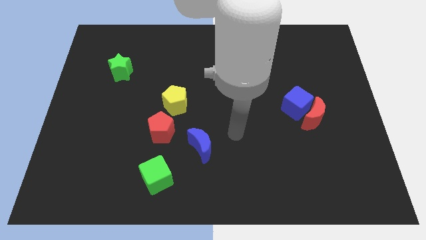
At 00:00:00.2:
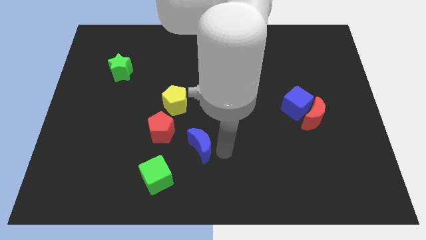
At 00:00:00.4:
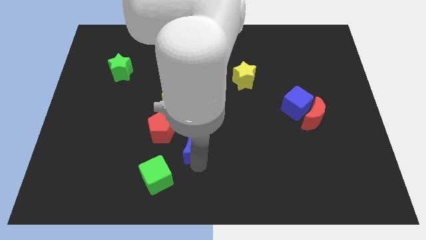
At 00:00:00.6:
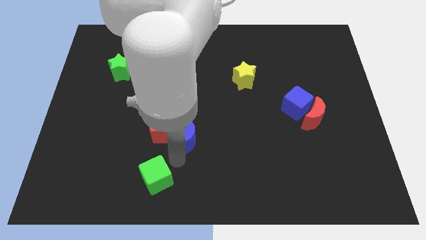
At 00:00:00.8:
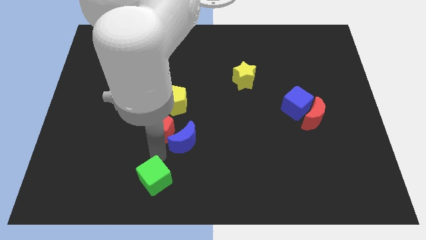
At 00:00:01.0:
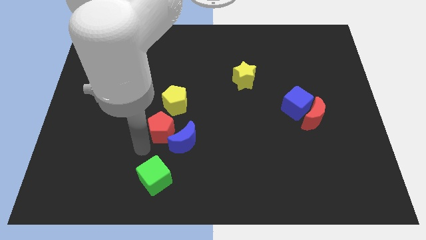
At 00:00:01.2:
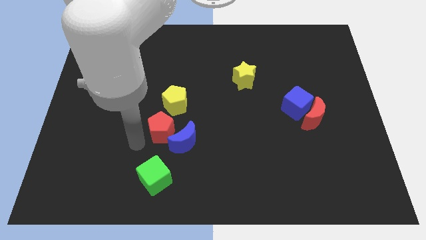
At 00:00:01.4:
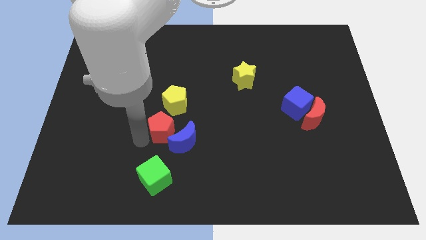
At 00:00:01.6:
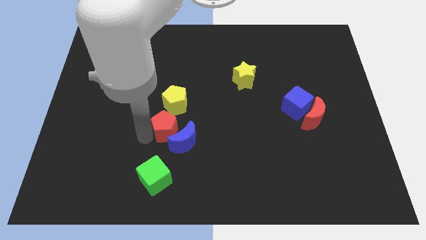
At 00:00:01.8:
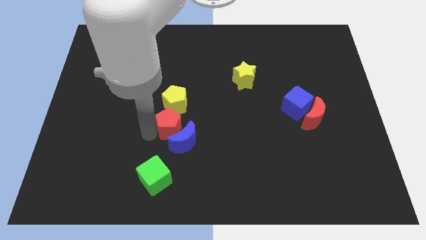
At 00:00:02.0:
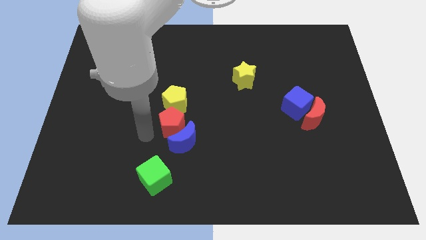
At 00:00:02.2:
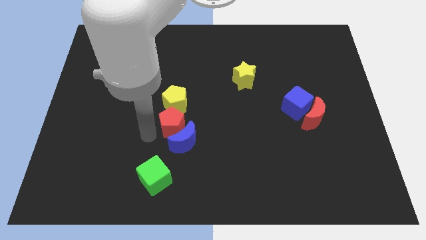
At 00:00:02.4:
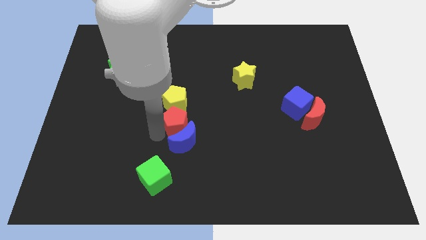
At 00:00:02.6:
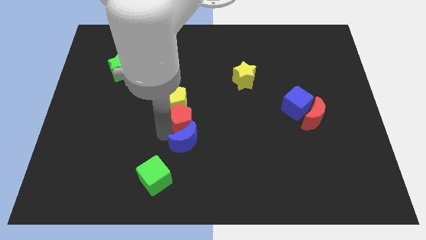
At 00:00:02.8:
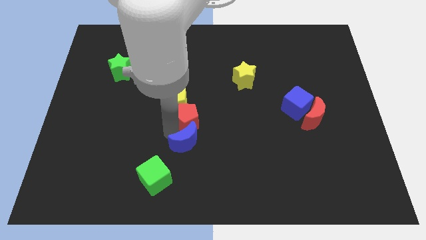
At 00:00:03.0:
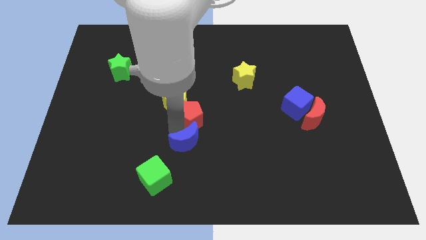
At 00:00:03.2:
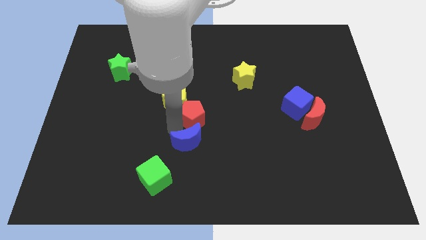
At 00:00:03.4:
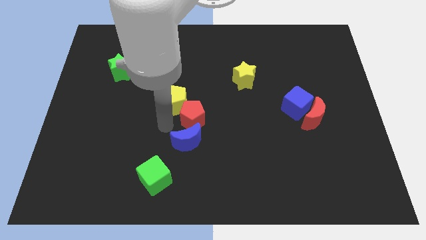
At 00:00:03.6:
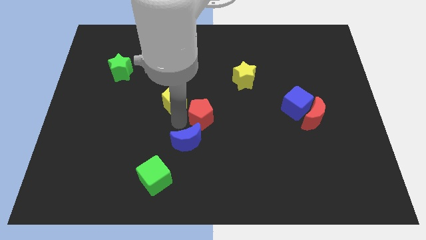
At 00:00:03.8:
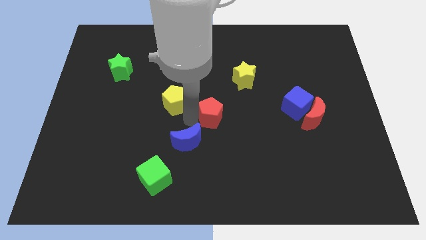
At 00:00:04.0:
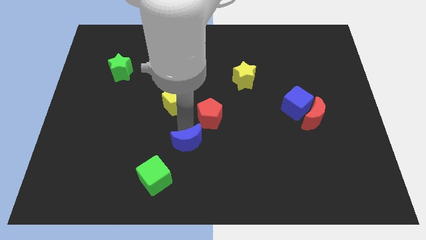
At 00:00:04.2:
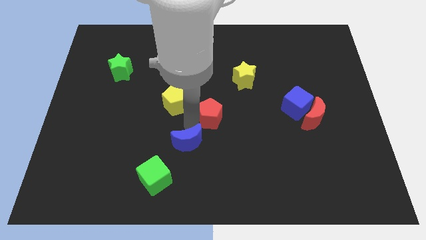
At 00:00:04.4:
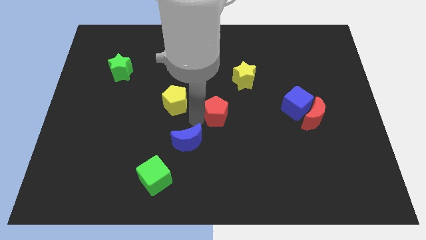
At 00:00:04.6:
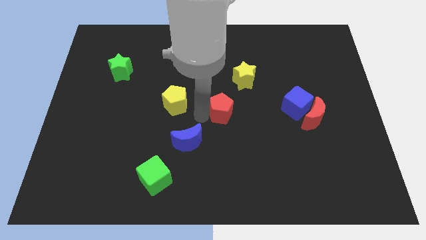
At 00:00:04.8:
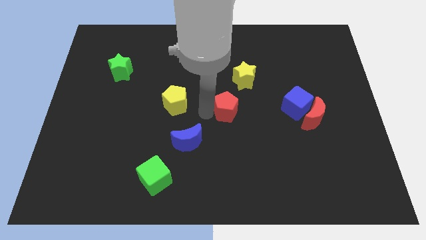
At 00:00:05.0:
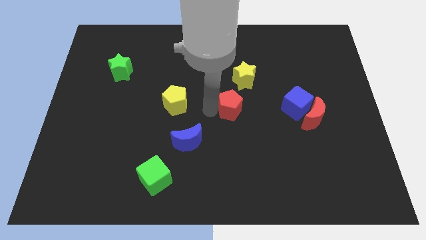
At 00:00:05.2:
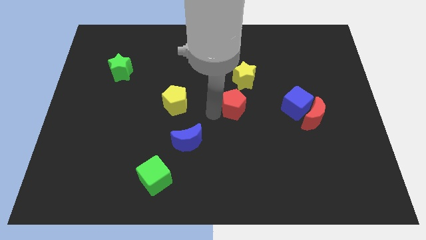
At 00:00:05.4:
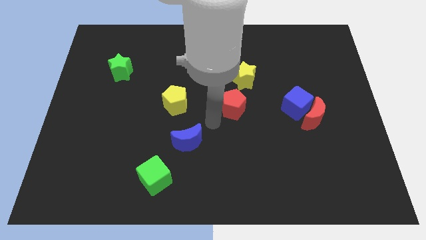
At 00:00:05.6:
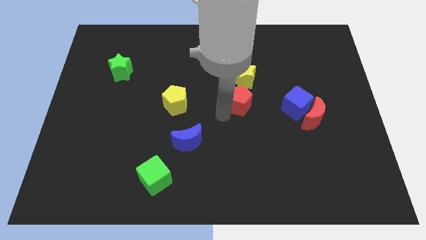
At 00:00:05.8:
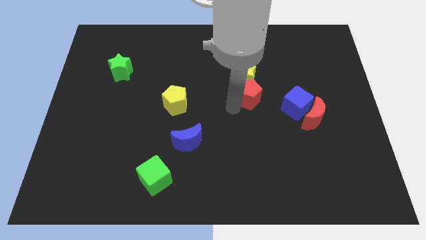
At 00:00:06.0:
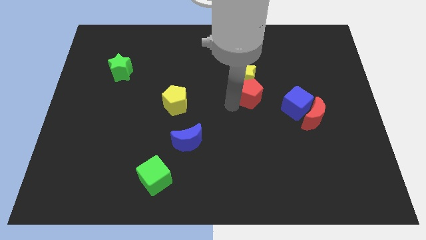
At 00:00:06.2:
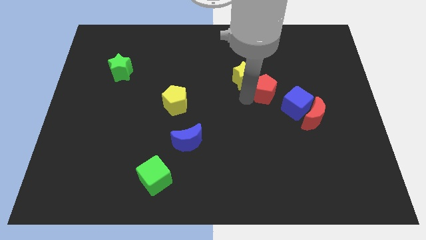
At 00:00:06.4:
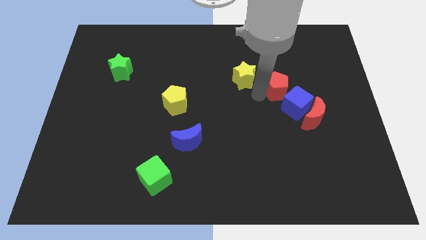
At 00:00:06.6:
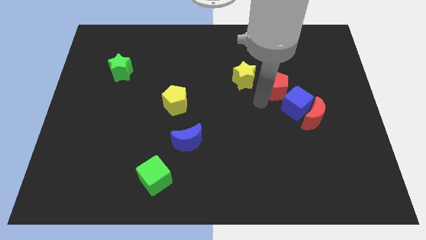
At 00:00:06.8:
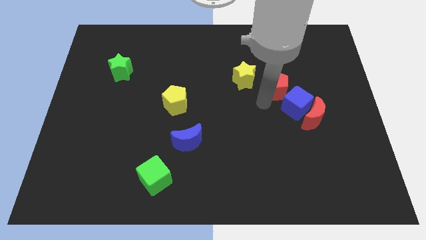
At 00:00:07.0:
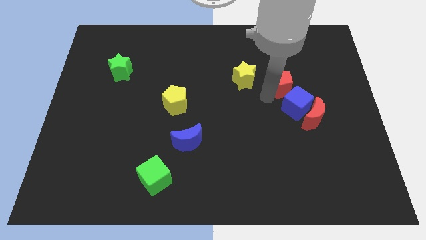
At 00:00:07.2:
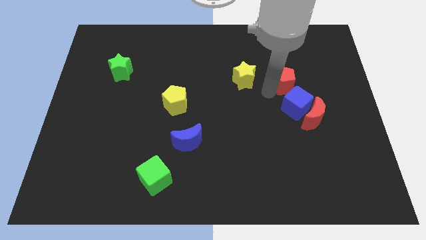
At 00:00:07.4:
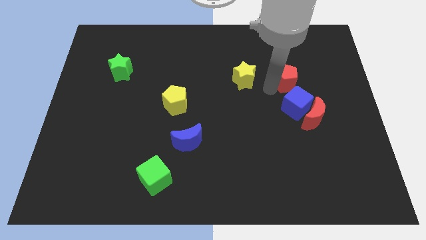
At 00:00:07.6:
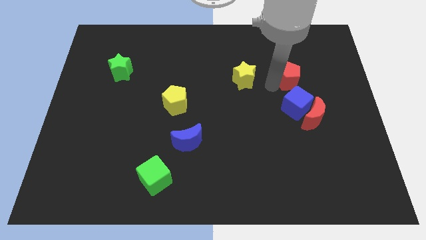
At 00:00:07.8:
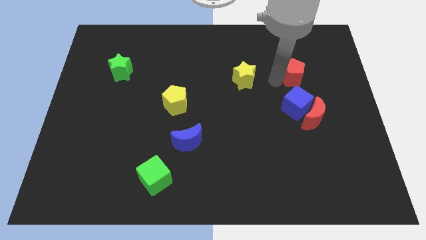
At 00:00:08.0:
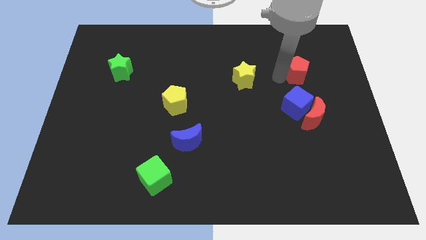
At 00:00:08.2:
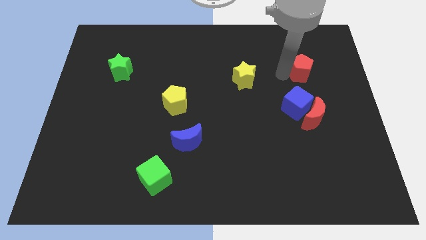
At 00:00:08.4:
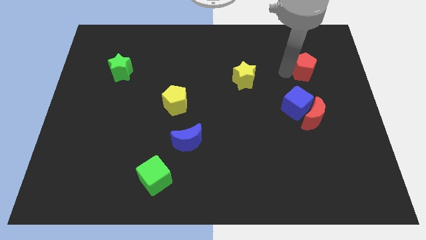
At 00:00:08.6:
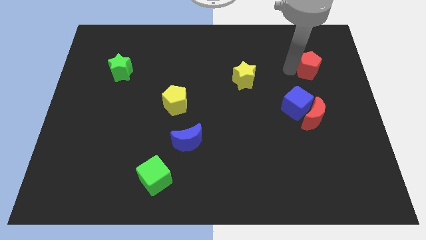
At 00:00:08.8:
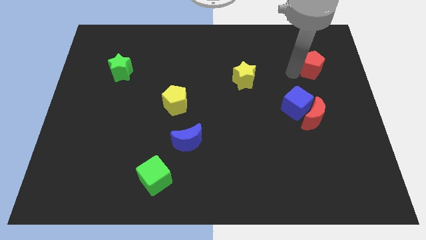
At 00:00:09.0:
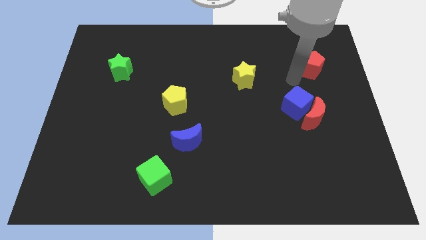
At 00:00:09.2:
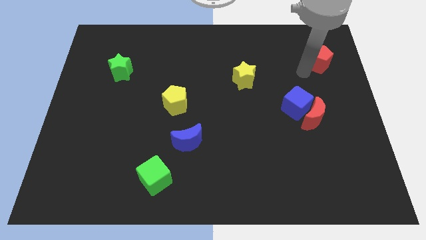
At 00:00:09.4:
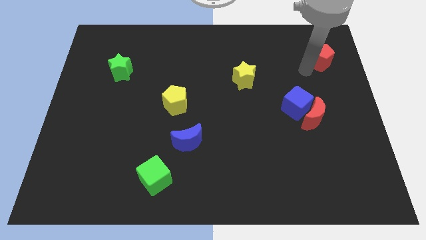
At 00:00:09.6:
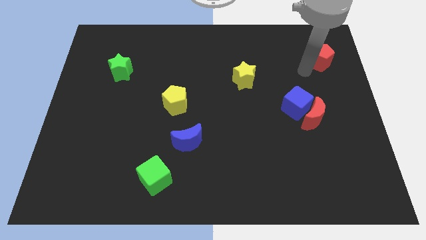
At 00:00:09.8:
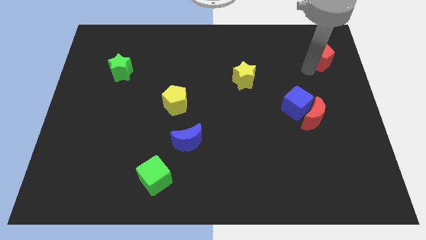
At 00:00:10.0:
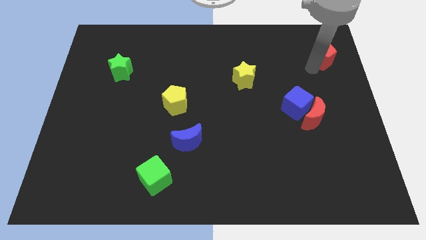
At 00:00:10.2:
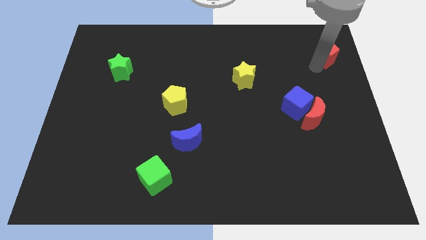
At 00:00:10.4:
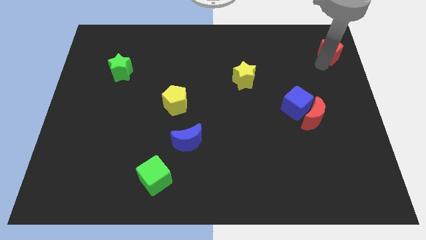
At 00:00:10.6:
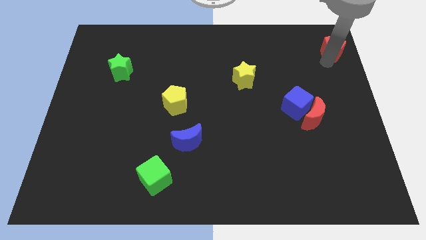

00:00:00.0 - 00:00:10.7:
put the red pentagon to the top right corner
